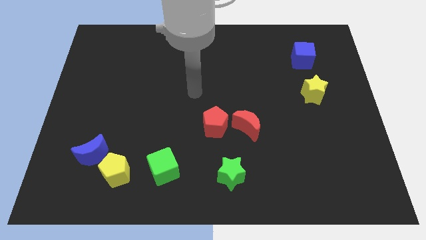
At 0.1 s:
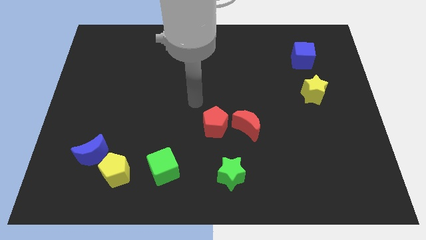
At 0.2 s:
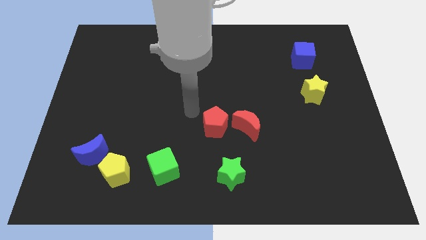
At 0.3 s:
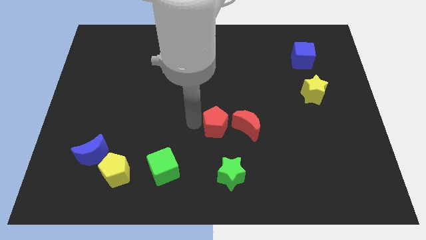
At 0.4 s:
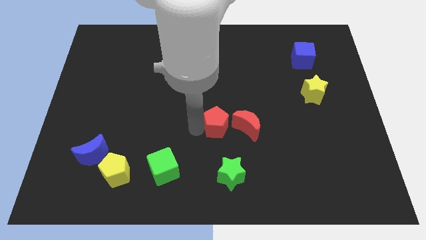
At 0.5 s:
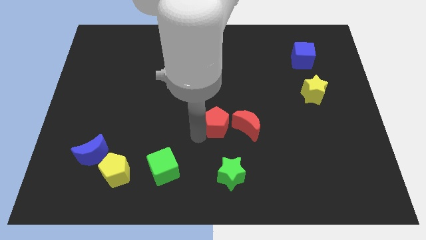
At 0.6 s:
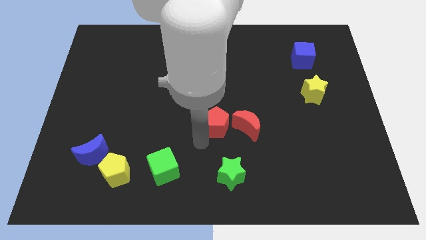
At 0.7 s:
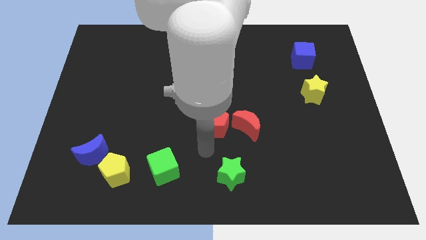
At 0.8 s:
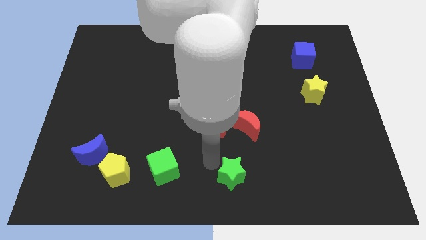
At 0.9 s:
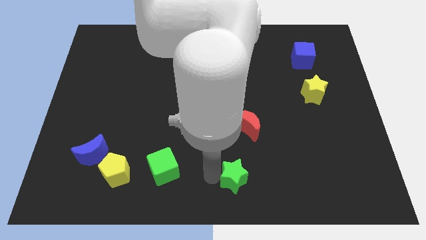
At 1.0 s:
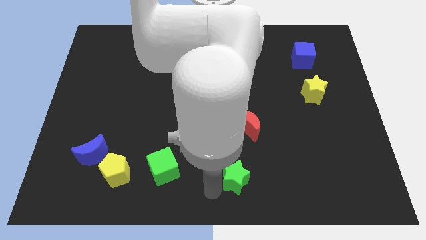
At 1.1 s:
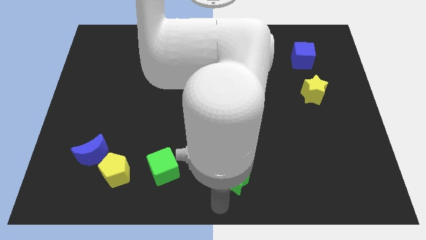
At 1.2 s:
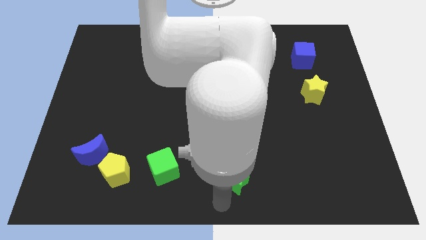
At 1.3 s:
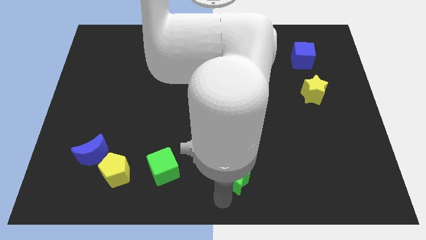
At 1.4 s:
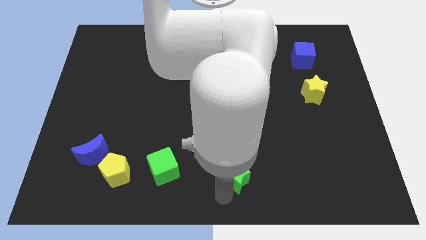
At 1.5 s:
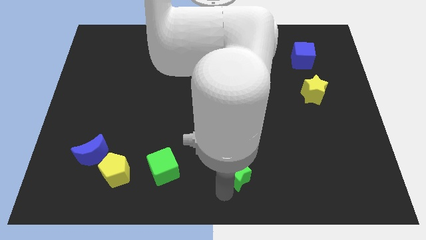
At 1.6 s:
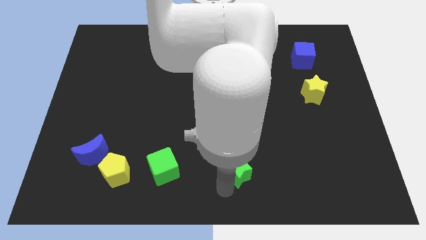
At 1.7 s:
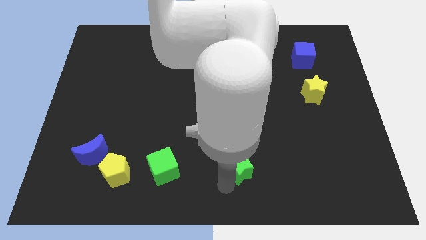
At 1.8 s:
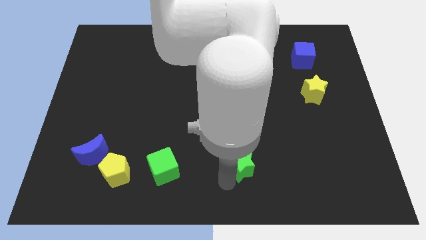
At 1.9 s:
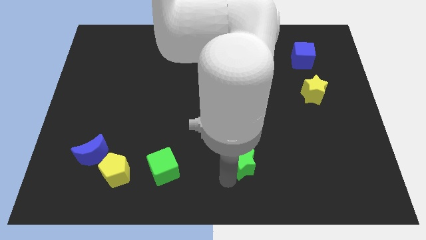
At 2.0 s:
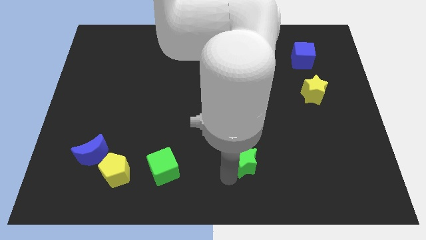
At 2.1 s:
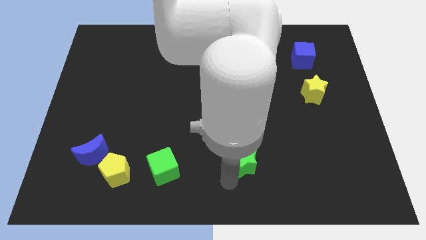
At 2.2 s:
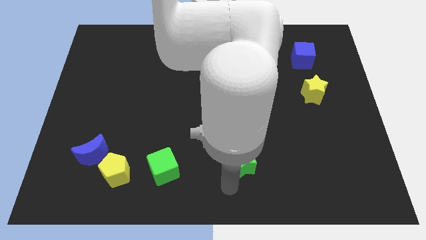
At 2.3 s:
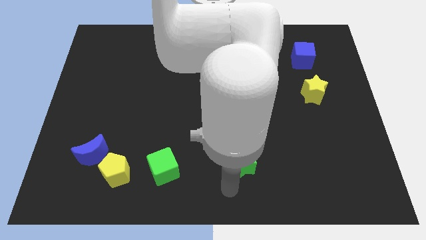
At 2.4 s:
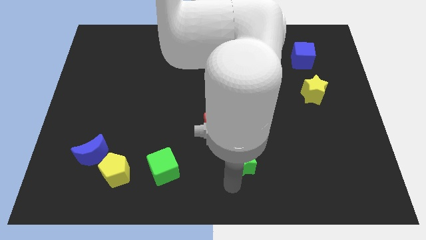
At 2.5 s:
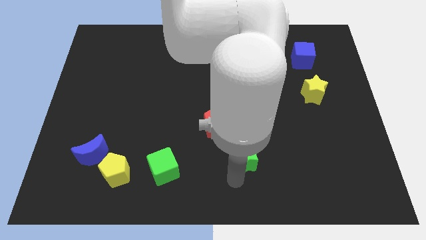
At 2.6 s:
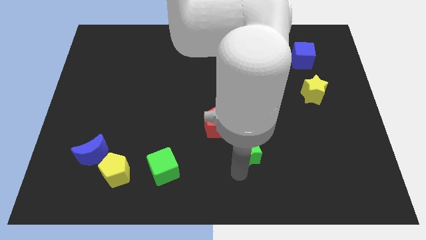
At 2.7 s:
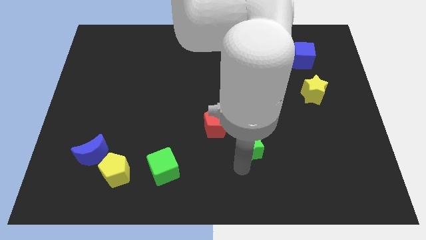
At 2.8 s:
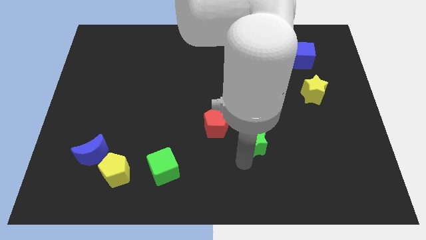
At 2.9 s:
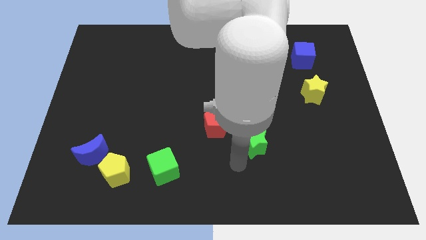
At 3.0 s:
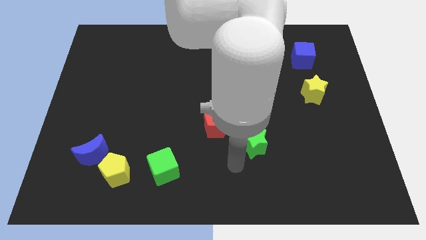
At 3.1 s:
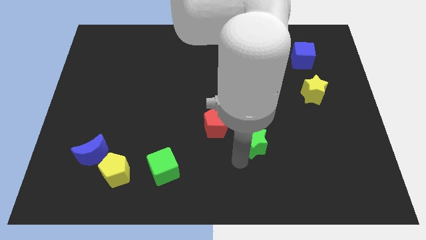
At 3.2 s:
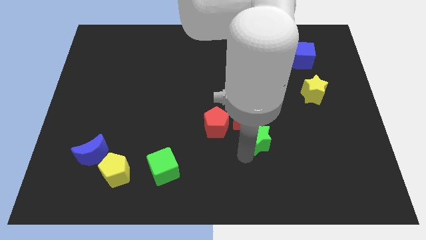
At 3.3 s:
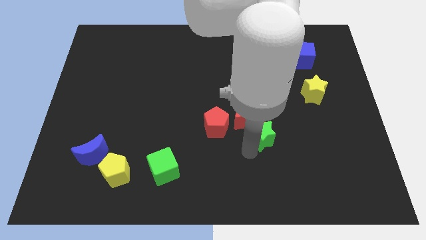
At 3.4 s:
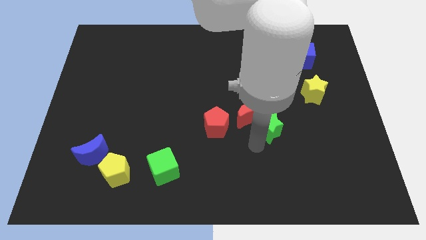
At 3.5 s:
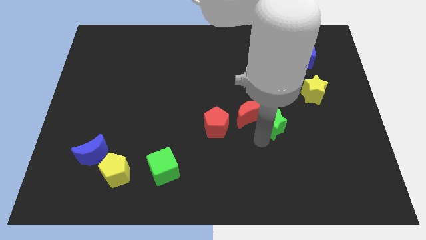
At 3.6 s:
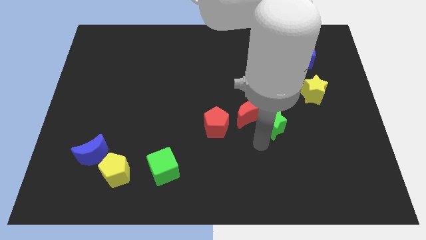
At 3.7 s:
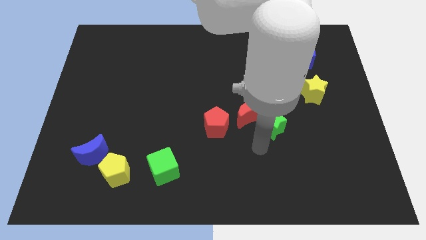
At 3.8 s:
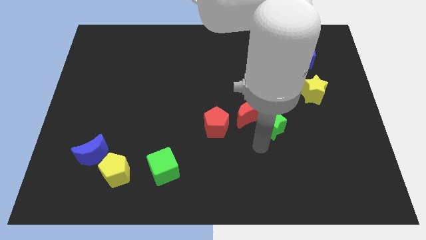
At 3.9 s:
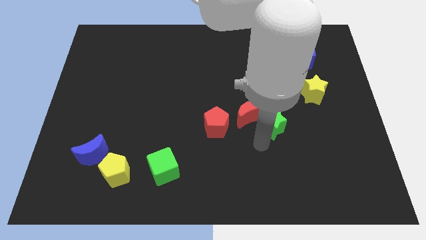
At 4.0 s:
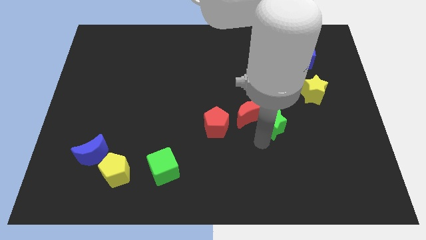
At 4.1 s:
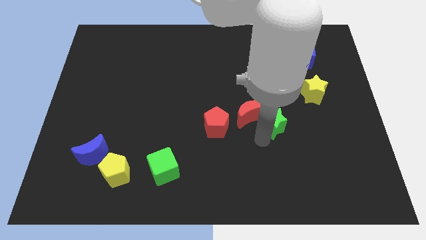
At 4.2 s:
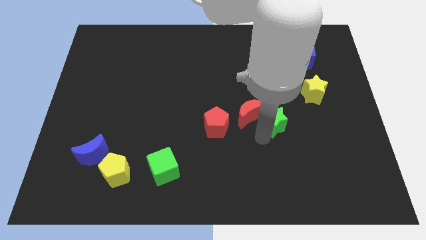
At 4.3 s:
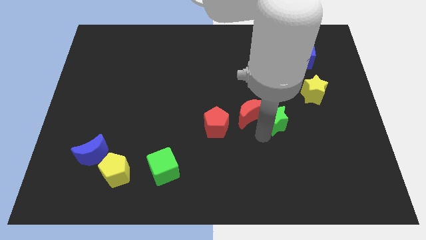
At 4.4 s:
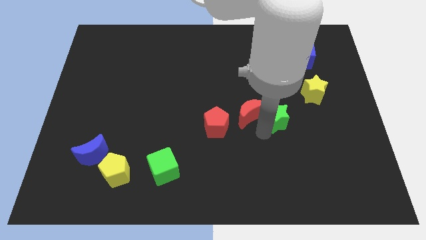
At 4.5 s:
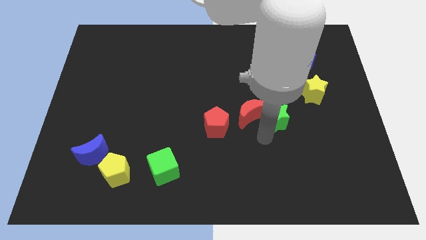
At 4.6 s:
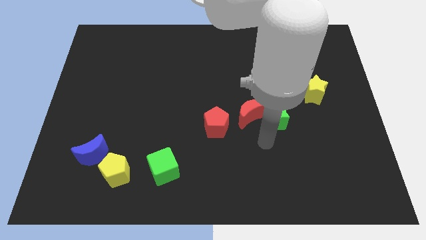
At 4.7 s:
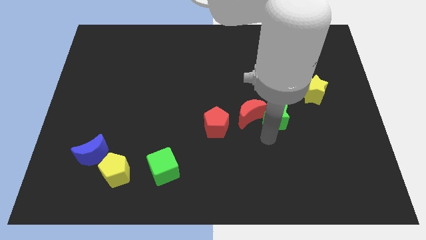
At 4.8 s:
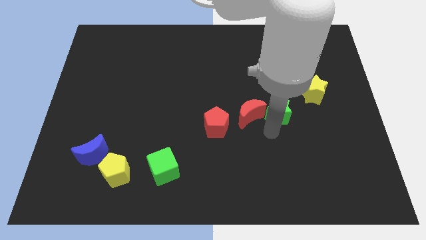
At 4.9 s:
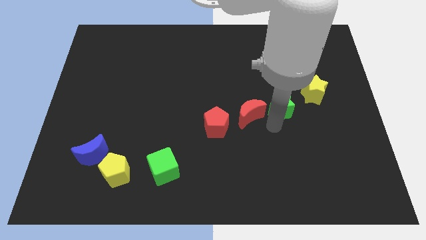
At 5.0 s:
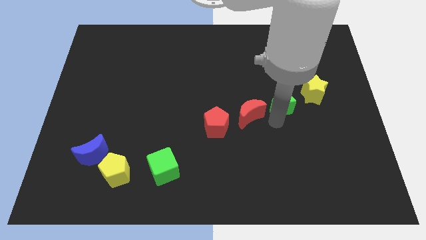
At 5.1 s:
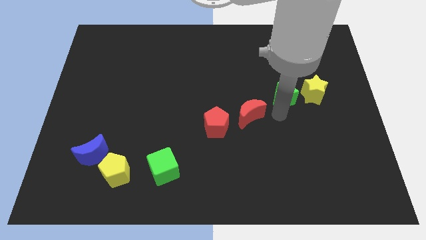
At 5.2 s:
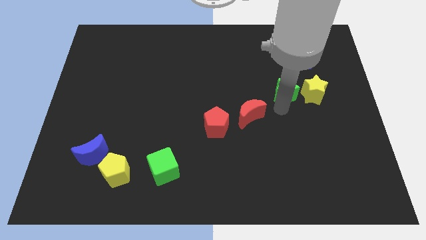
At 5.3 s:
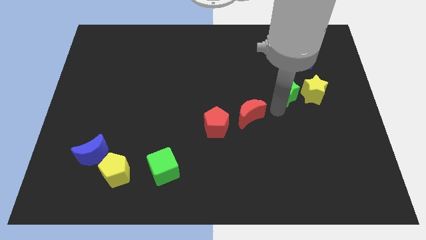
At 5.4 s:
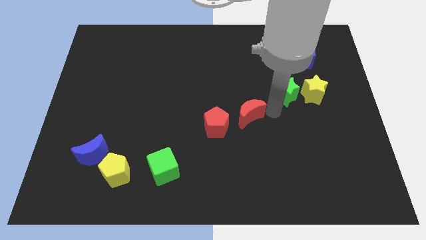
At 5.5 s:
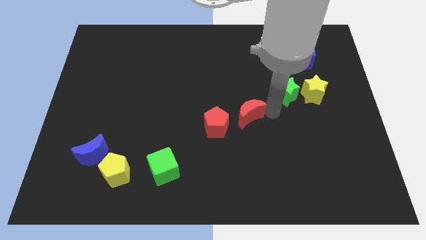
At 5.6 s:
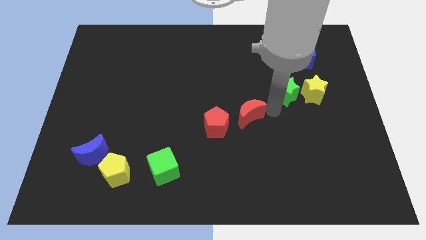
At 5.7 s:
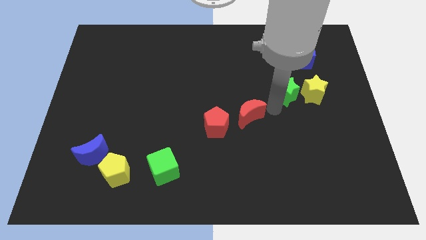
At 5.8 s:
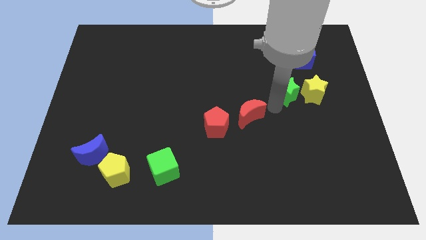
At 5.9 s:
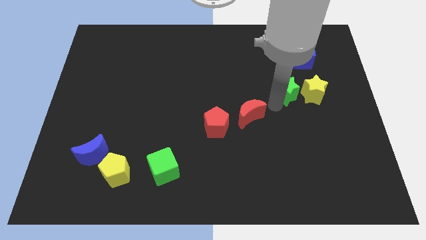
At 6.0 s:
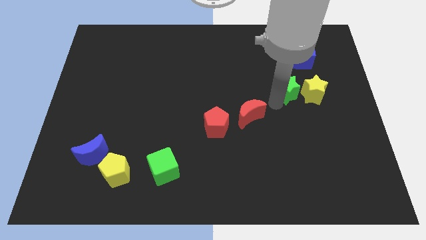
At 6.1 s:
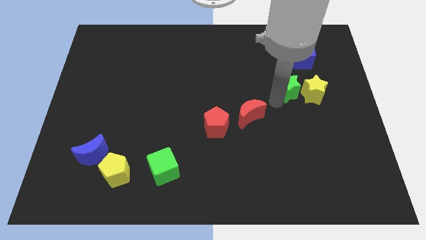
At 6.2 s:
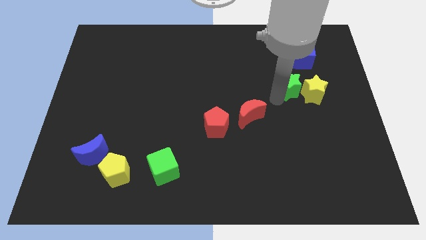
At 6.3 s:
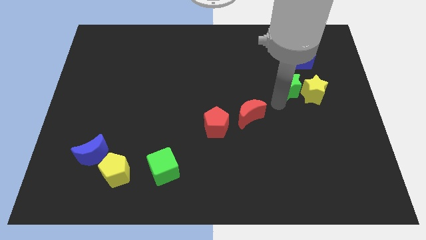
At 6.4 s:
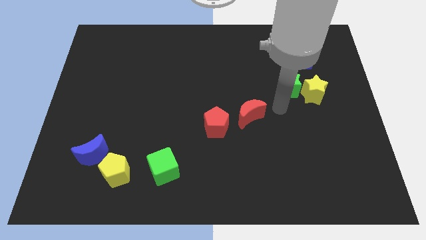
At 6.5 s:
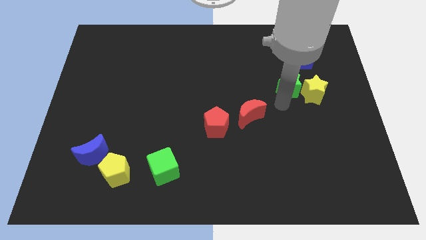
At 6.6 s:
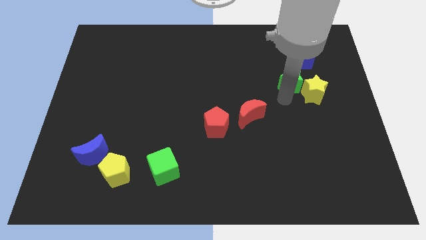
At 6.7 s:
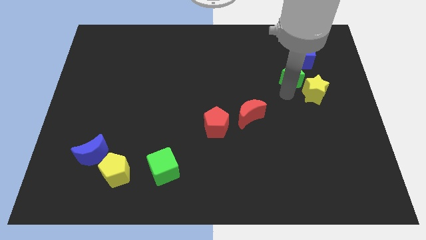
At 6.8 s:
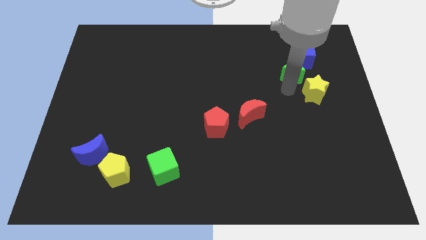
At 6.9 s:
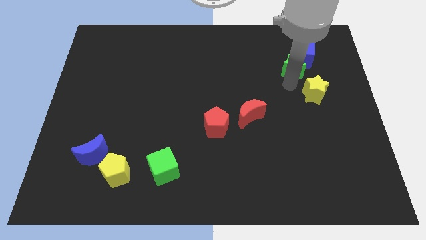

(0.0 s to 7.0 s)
push the green star next to the blue cube
